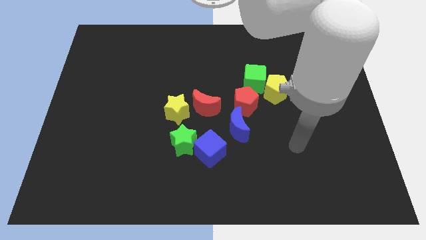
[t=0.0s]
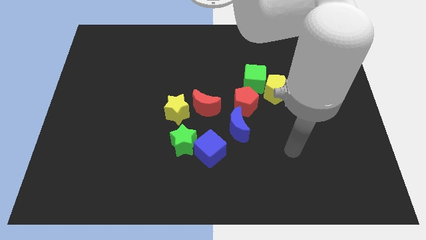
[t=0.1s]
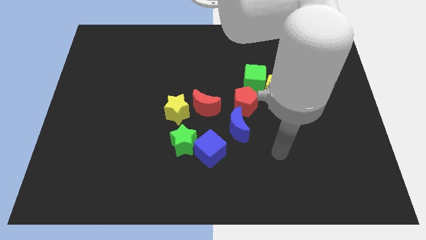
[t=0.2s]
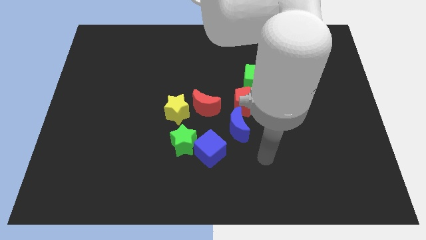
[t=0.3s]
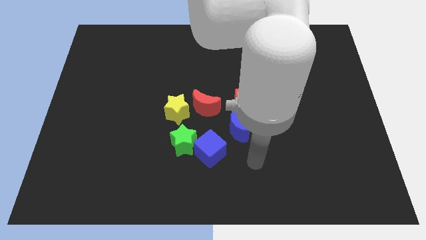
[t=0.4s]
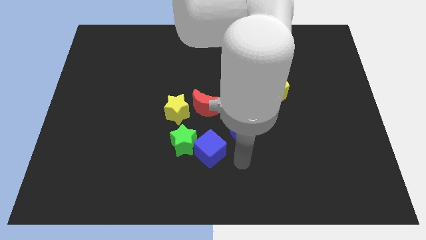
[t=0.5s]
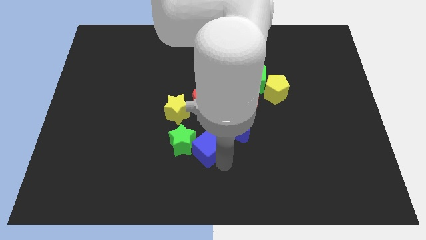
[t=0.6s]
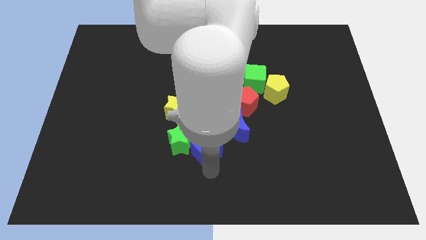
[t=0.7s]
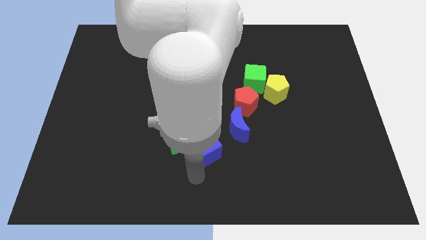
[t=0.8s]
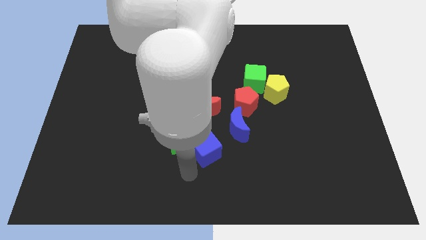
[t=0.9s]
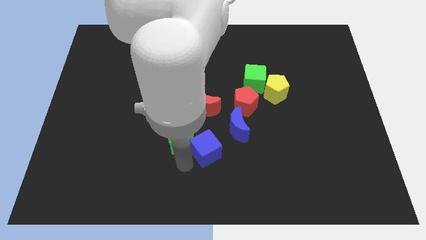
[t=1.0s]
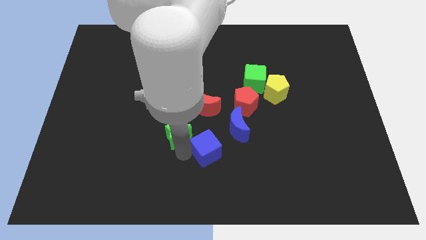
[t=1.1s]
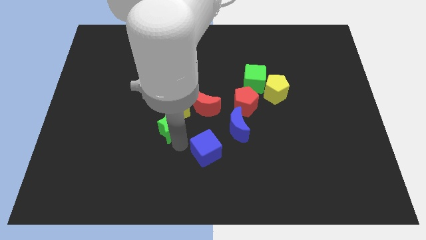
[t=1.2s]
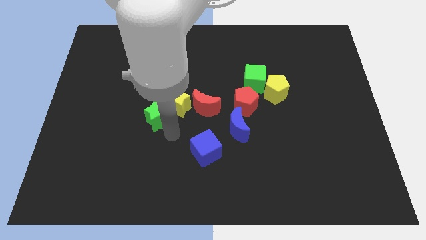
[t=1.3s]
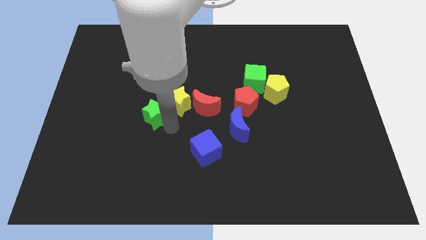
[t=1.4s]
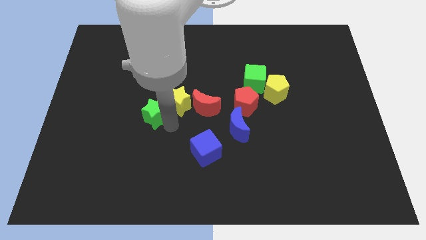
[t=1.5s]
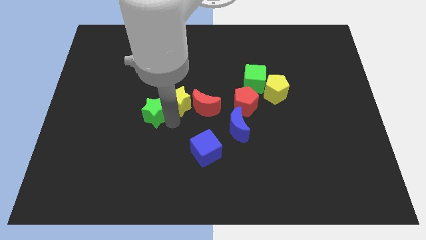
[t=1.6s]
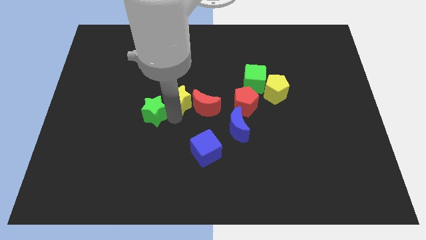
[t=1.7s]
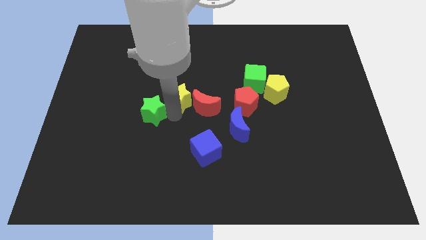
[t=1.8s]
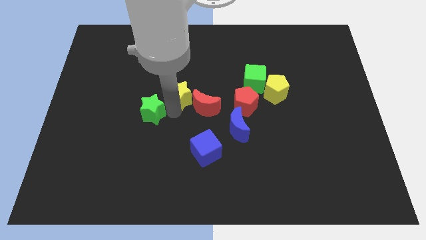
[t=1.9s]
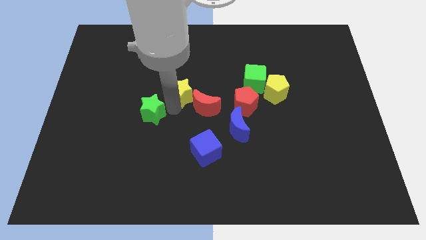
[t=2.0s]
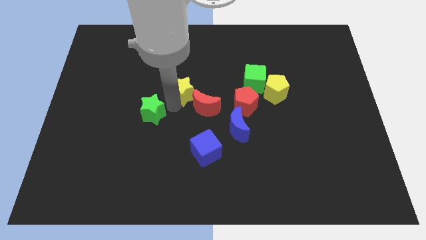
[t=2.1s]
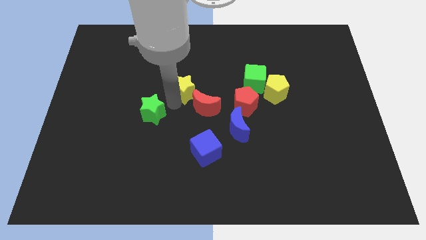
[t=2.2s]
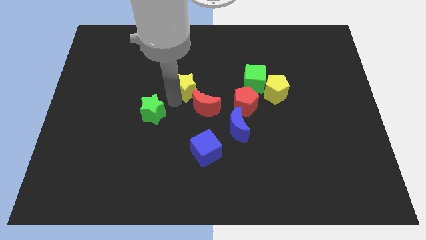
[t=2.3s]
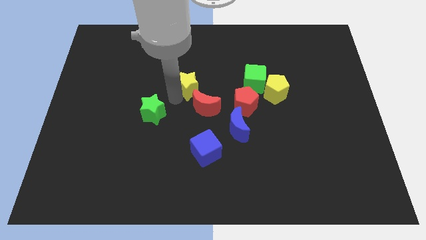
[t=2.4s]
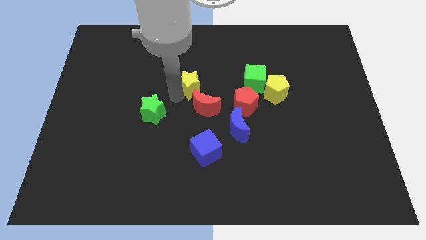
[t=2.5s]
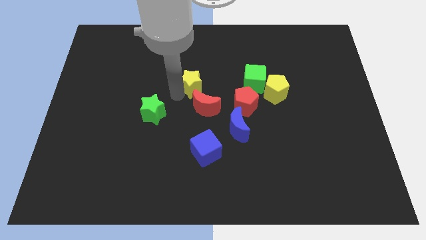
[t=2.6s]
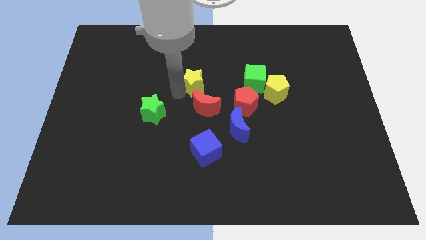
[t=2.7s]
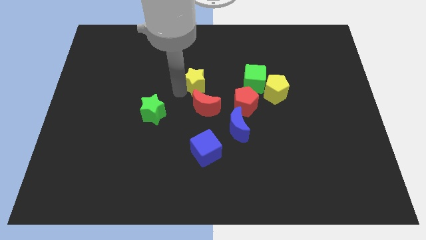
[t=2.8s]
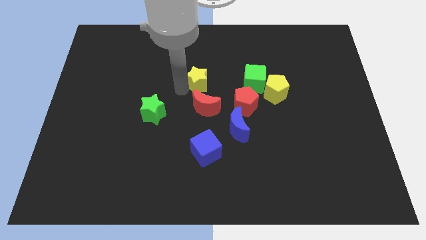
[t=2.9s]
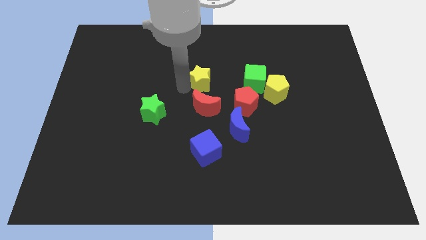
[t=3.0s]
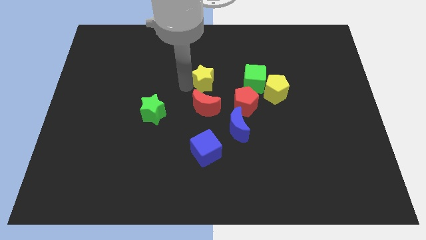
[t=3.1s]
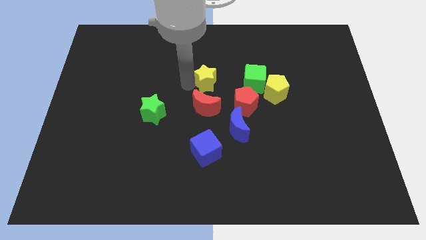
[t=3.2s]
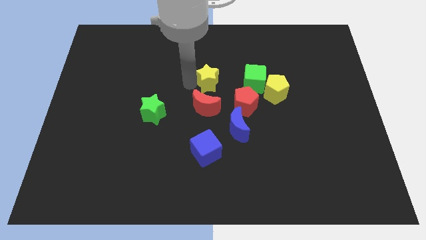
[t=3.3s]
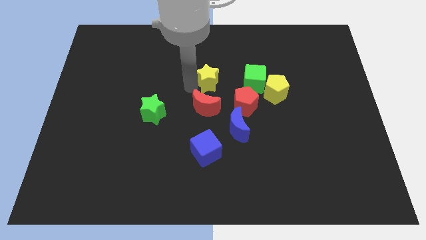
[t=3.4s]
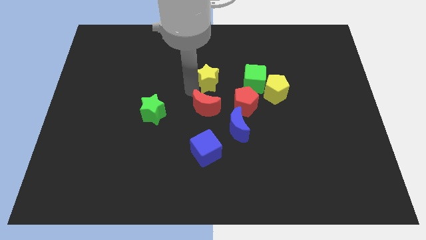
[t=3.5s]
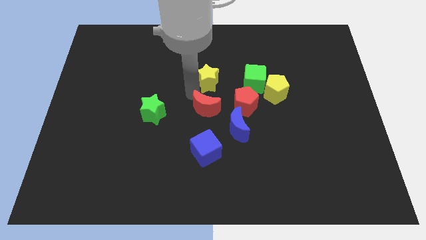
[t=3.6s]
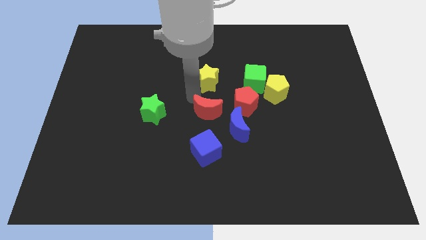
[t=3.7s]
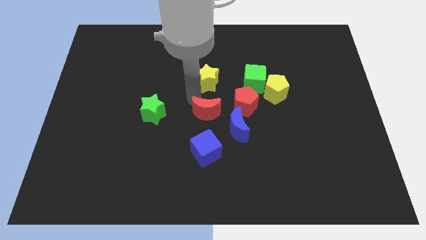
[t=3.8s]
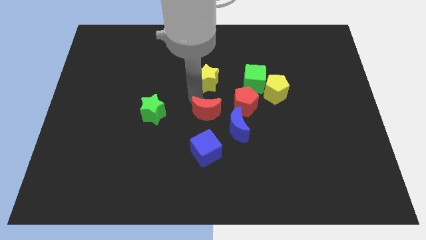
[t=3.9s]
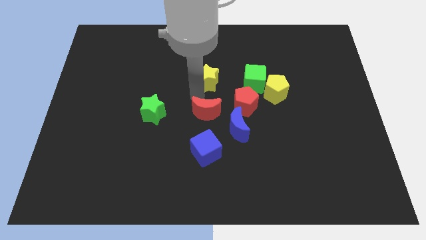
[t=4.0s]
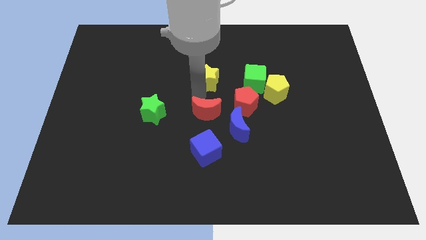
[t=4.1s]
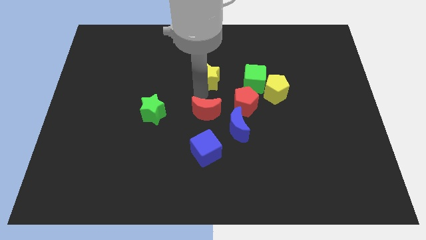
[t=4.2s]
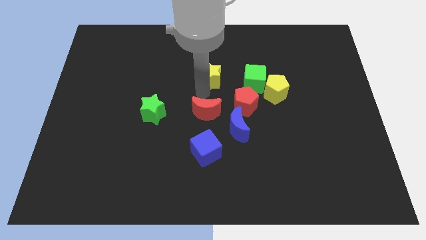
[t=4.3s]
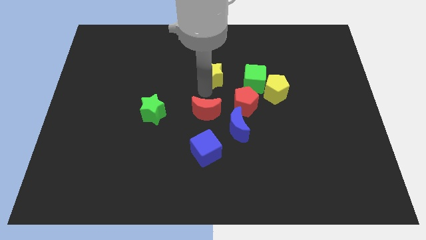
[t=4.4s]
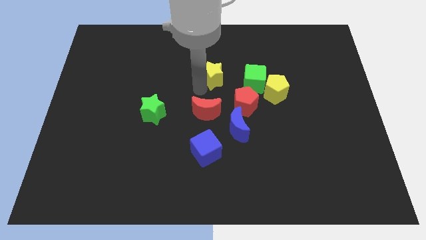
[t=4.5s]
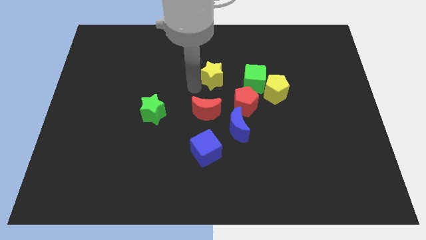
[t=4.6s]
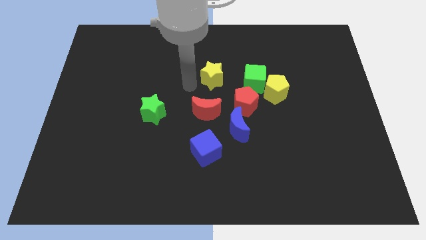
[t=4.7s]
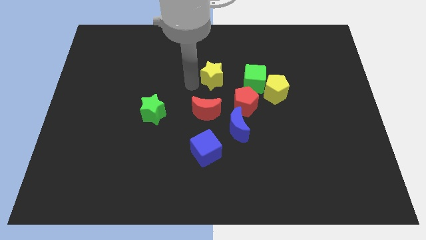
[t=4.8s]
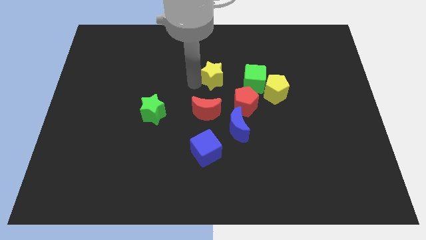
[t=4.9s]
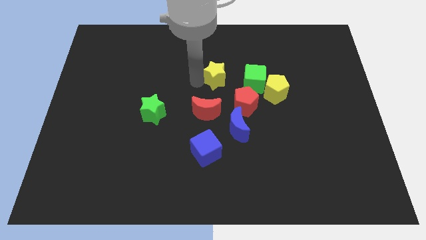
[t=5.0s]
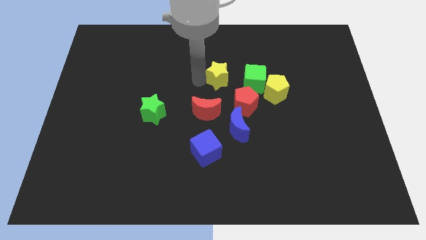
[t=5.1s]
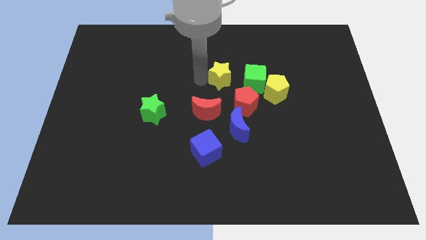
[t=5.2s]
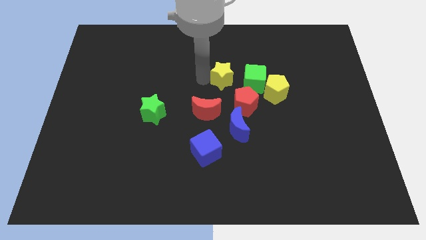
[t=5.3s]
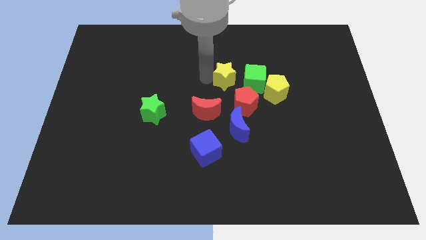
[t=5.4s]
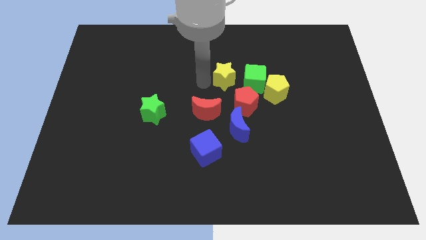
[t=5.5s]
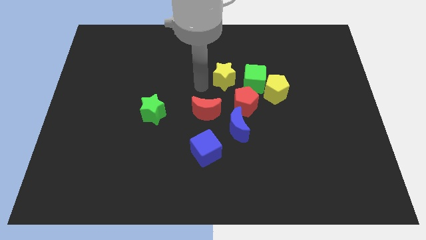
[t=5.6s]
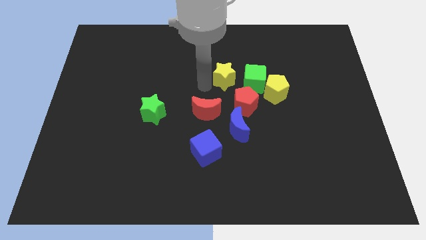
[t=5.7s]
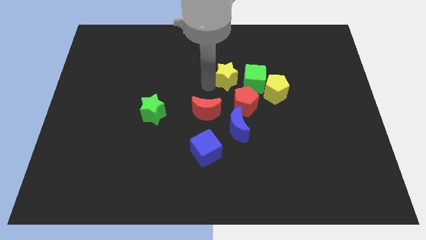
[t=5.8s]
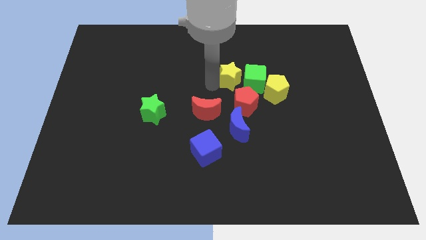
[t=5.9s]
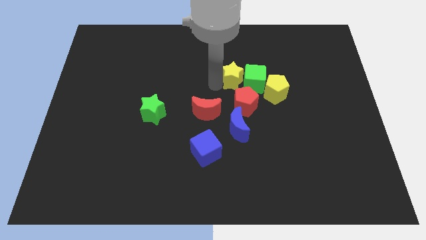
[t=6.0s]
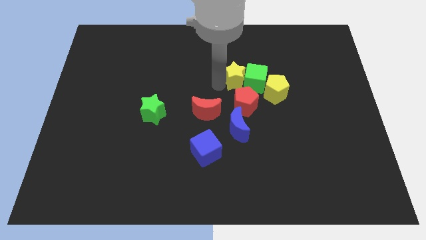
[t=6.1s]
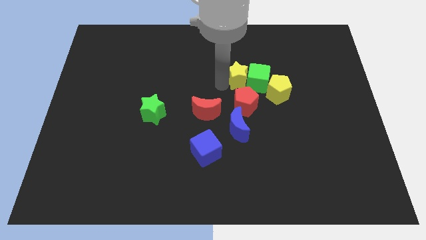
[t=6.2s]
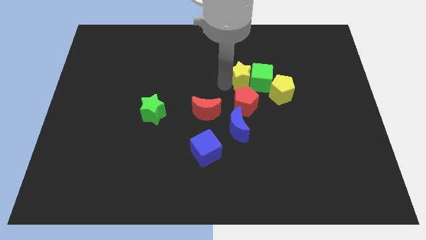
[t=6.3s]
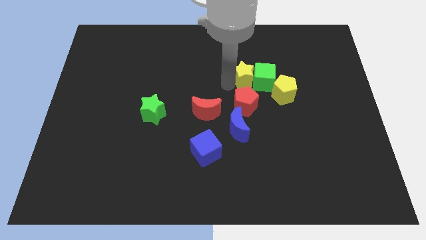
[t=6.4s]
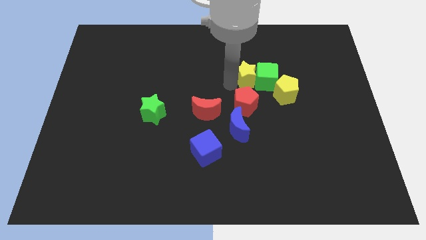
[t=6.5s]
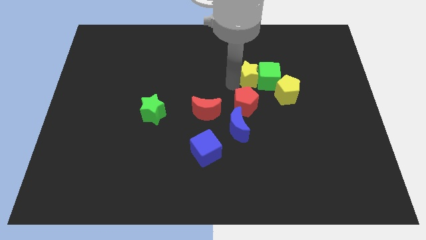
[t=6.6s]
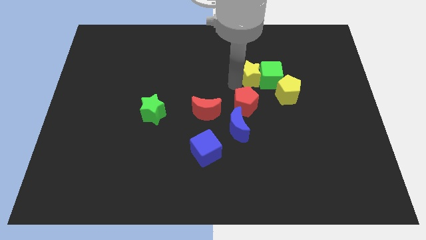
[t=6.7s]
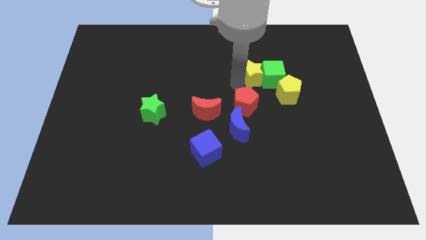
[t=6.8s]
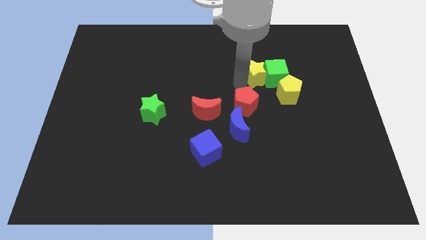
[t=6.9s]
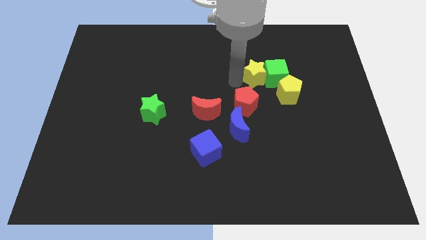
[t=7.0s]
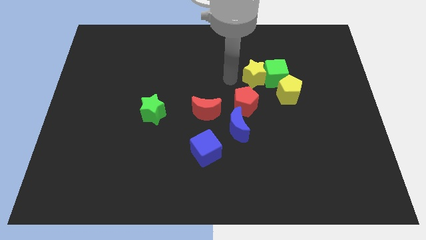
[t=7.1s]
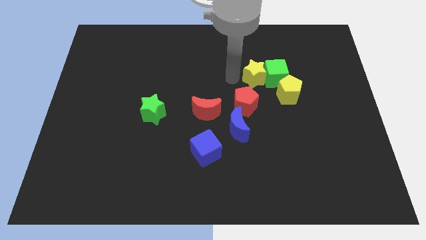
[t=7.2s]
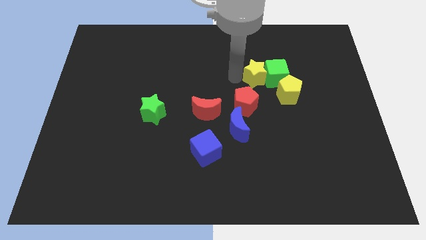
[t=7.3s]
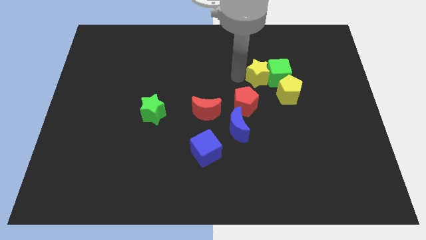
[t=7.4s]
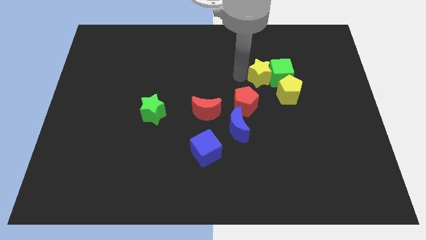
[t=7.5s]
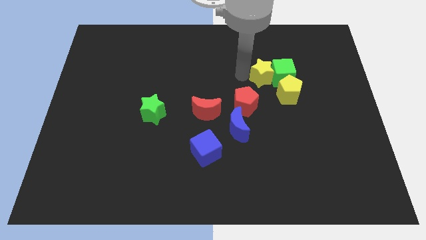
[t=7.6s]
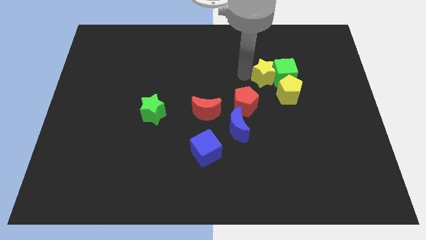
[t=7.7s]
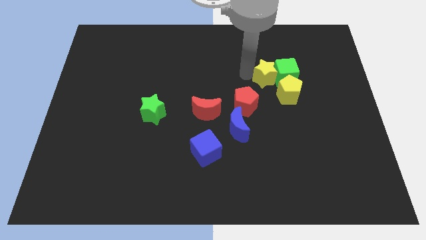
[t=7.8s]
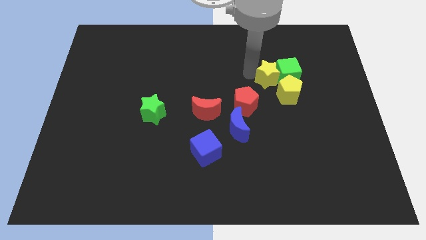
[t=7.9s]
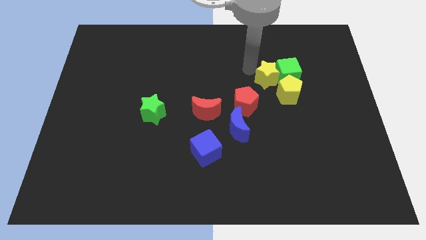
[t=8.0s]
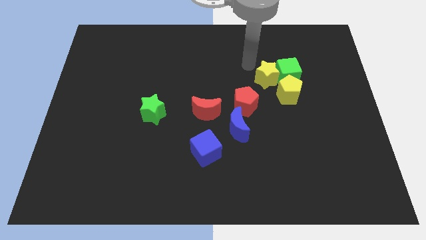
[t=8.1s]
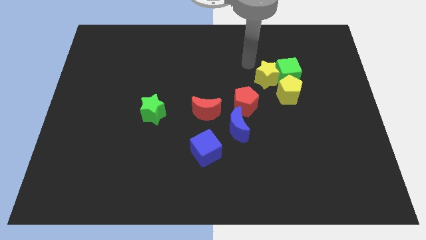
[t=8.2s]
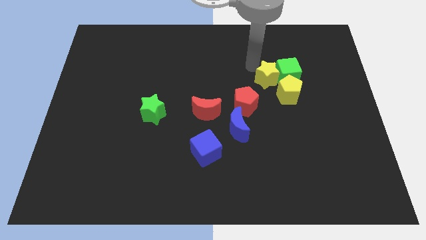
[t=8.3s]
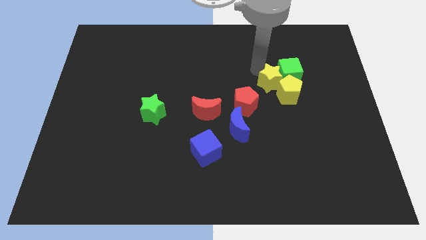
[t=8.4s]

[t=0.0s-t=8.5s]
put the yellow star next to the yellow pentagon
